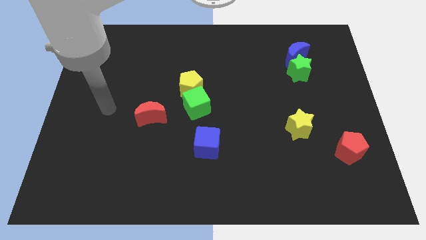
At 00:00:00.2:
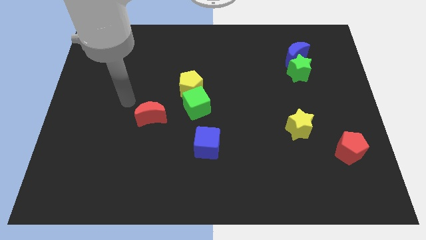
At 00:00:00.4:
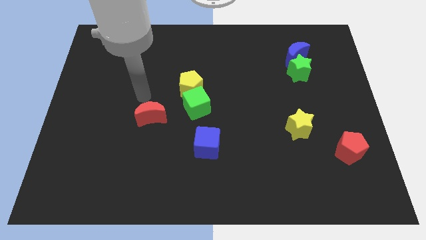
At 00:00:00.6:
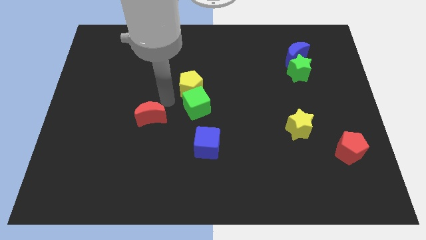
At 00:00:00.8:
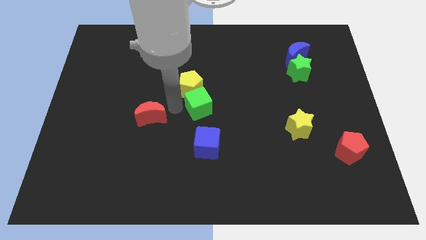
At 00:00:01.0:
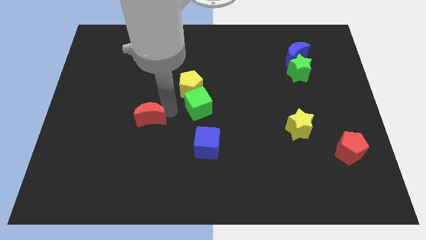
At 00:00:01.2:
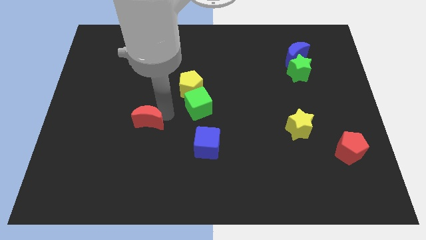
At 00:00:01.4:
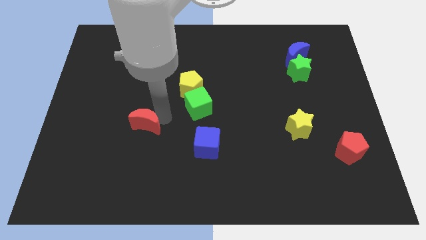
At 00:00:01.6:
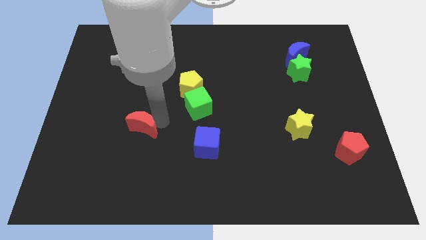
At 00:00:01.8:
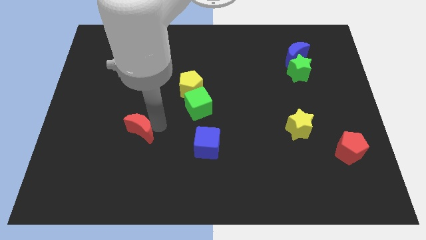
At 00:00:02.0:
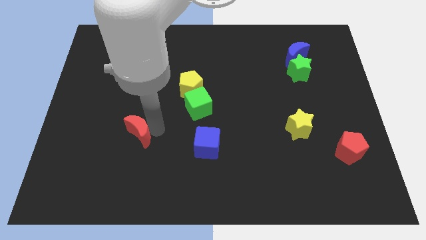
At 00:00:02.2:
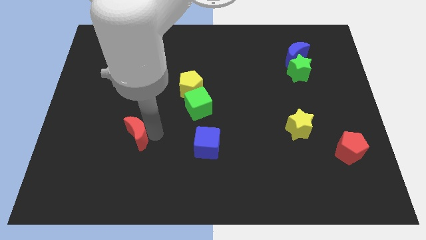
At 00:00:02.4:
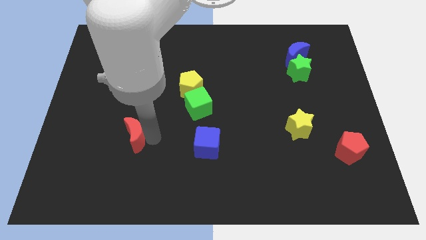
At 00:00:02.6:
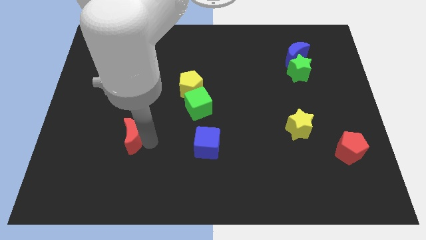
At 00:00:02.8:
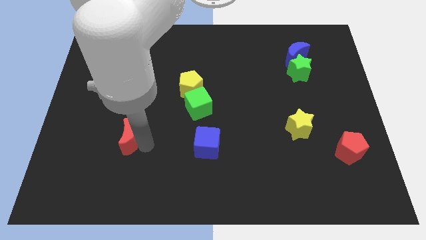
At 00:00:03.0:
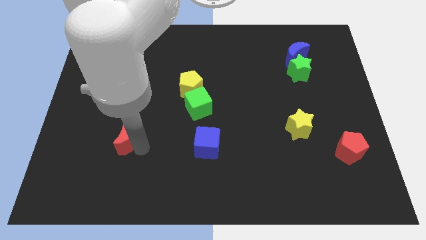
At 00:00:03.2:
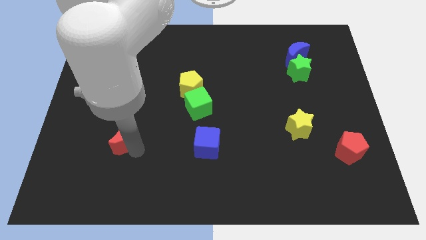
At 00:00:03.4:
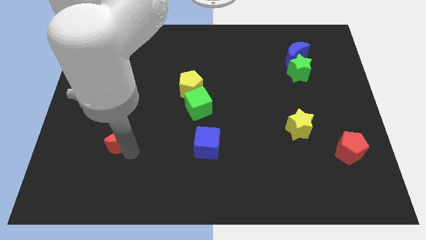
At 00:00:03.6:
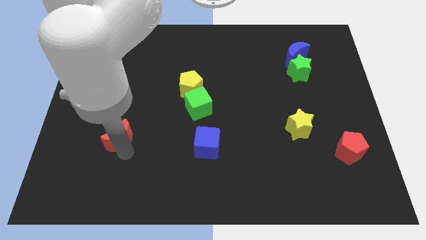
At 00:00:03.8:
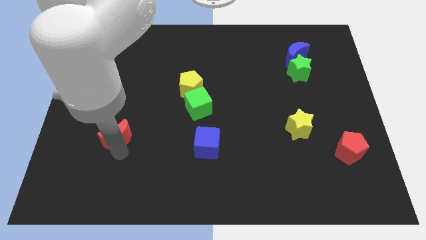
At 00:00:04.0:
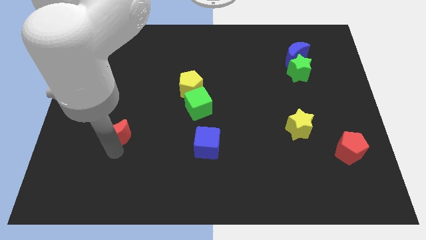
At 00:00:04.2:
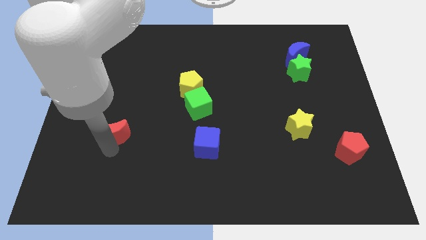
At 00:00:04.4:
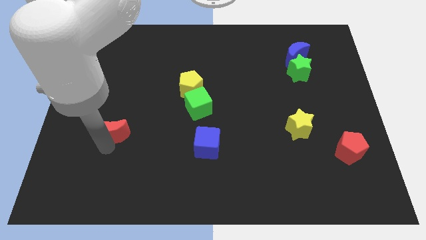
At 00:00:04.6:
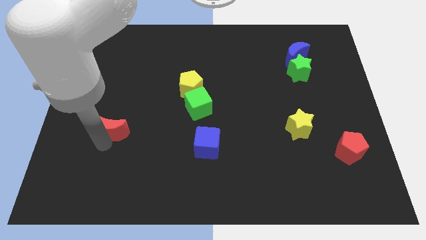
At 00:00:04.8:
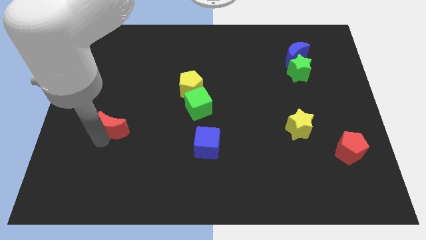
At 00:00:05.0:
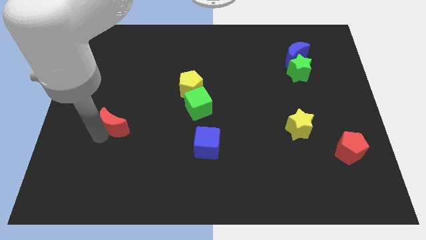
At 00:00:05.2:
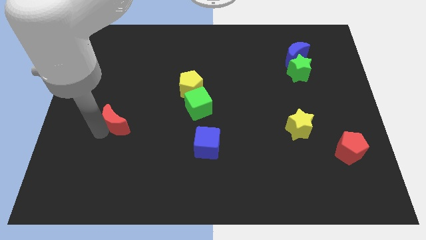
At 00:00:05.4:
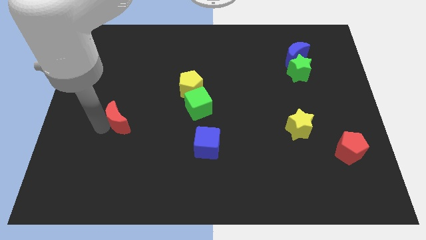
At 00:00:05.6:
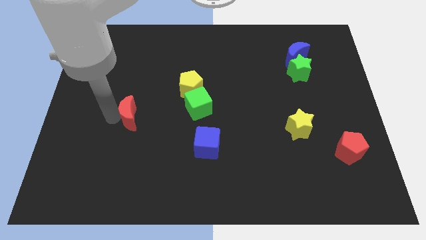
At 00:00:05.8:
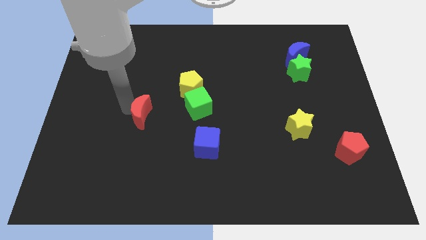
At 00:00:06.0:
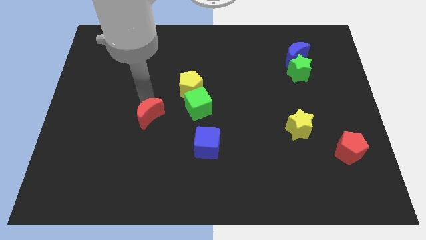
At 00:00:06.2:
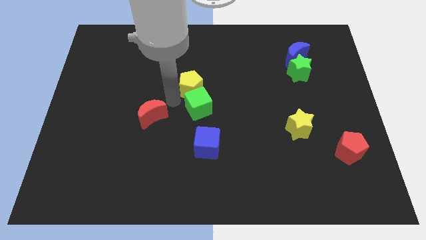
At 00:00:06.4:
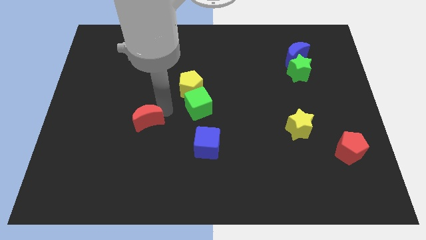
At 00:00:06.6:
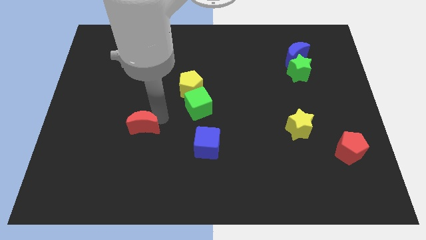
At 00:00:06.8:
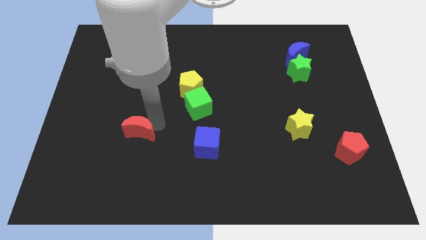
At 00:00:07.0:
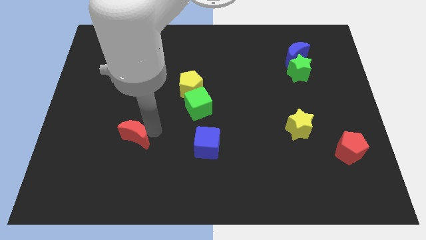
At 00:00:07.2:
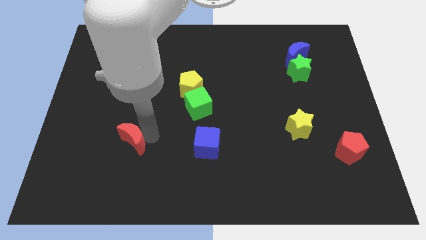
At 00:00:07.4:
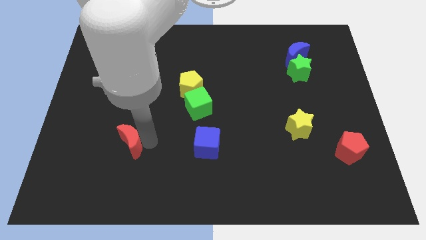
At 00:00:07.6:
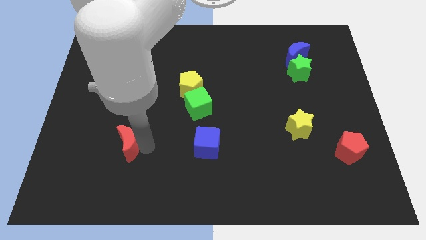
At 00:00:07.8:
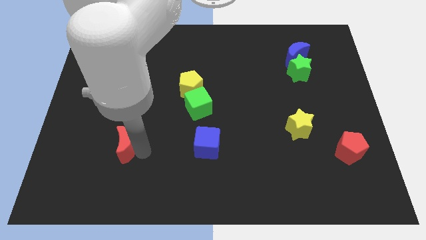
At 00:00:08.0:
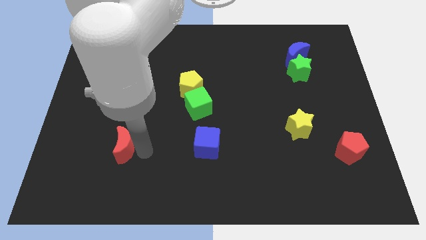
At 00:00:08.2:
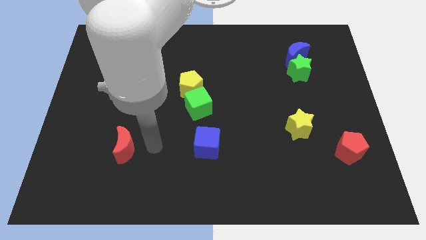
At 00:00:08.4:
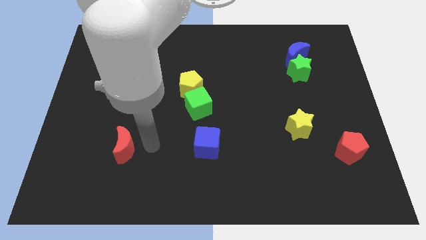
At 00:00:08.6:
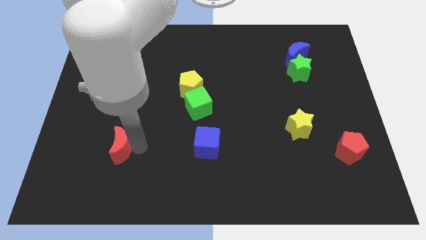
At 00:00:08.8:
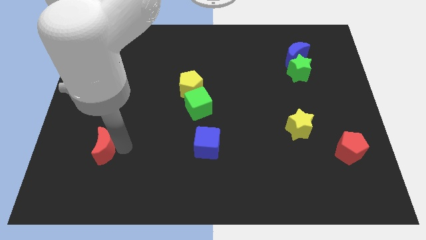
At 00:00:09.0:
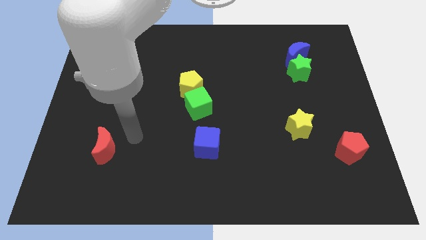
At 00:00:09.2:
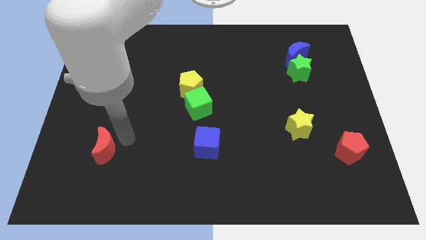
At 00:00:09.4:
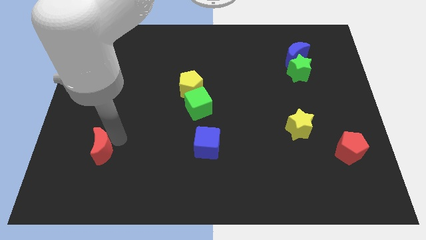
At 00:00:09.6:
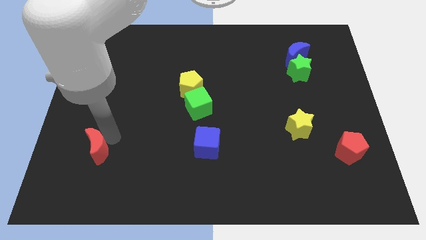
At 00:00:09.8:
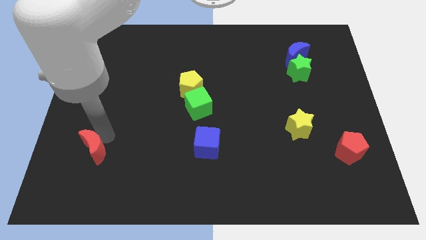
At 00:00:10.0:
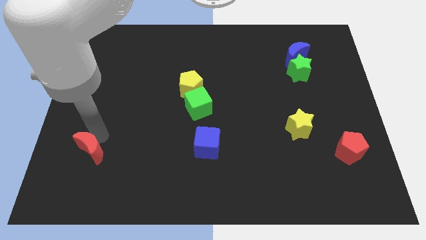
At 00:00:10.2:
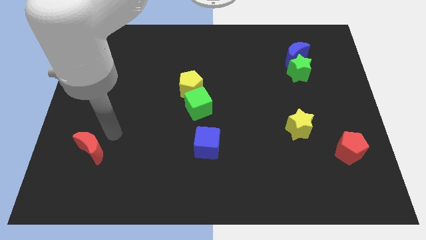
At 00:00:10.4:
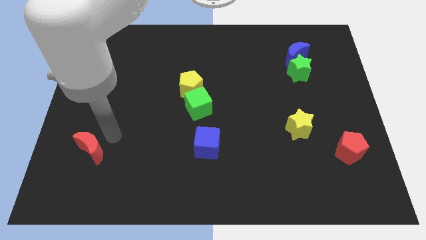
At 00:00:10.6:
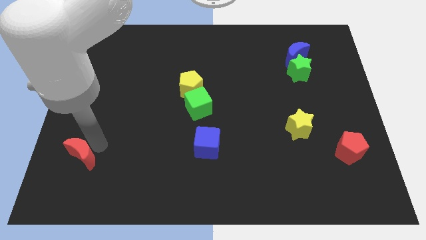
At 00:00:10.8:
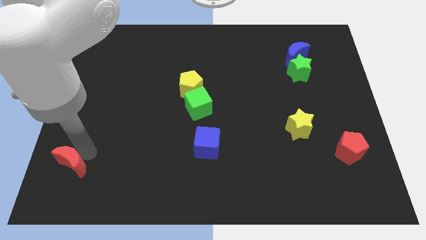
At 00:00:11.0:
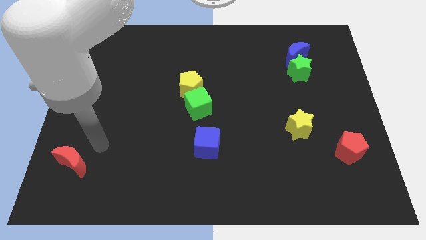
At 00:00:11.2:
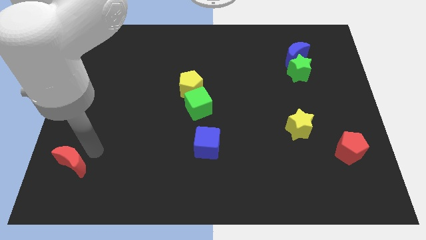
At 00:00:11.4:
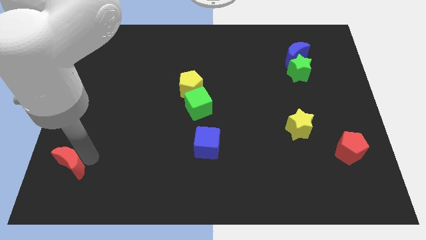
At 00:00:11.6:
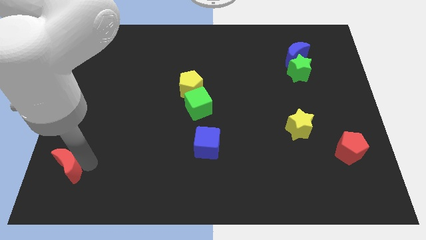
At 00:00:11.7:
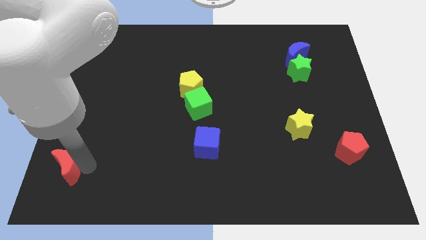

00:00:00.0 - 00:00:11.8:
move the red moon to the bottom left

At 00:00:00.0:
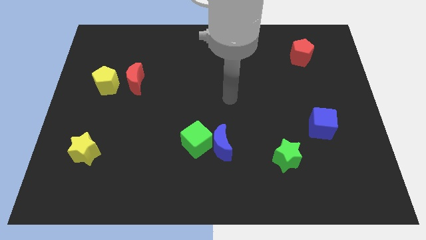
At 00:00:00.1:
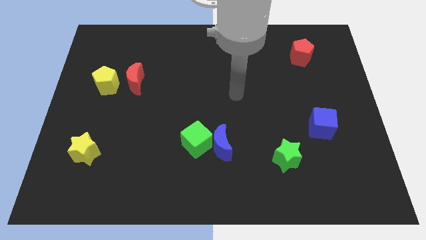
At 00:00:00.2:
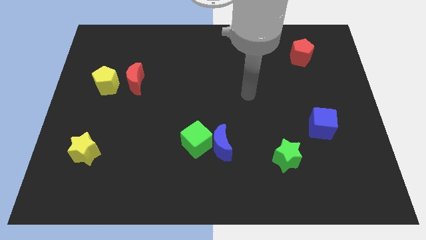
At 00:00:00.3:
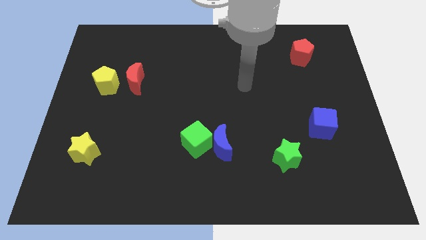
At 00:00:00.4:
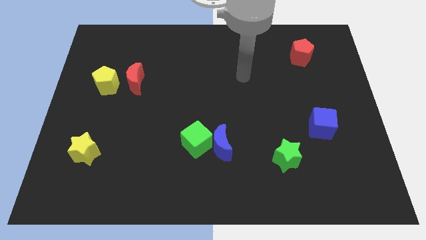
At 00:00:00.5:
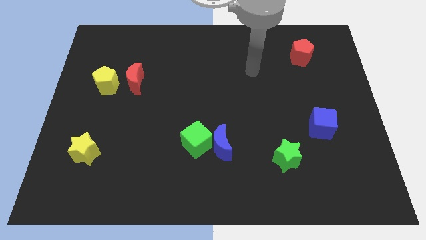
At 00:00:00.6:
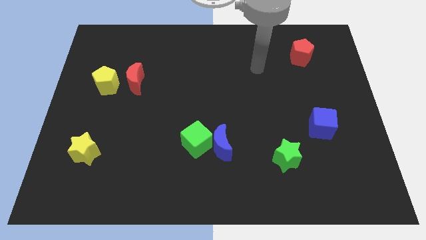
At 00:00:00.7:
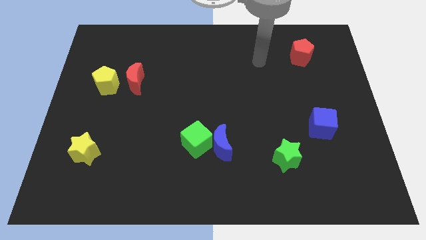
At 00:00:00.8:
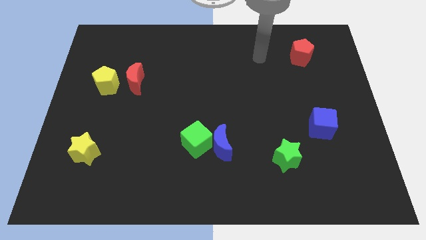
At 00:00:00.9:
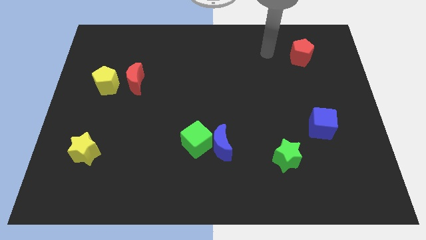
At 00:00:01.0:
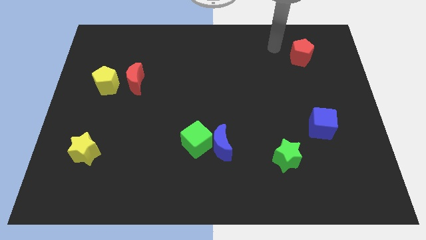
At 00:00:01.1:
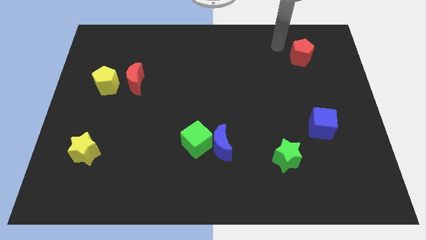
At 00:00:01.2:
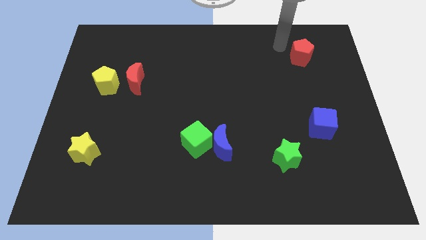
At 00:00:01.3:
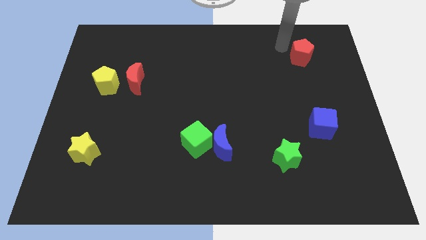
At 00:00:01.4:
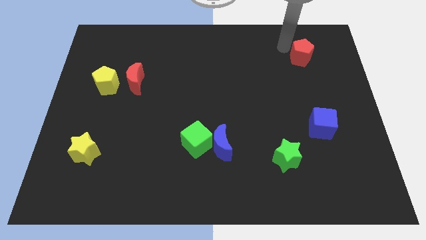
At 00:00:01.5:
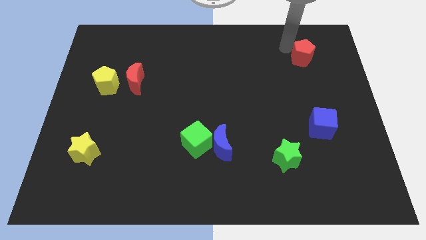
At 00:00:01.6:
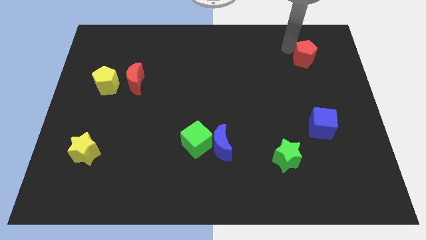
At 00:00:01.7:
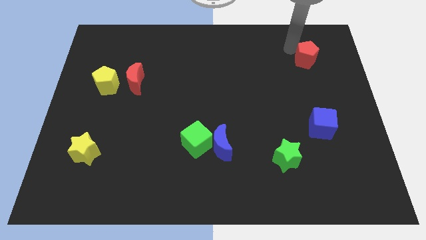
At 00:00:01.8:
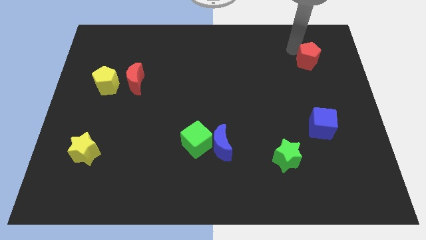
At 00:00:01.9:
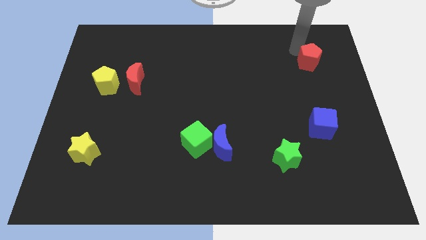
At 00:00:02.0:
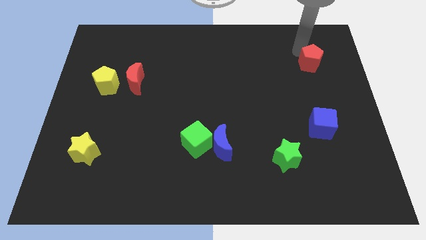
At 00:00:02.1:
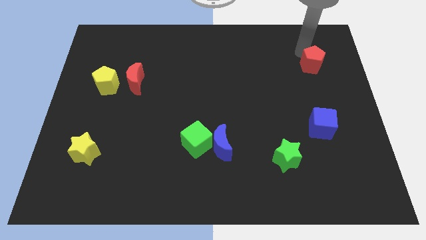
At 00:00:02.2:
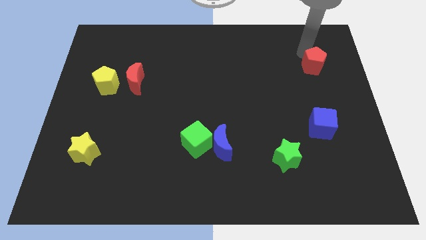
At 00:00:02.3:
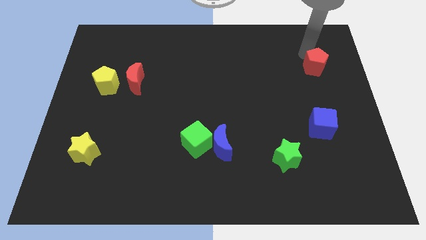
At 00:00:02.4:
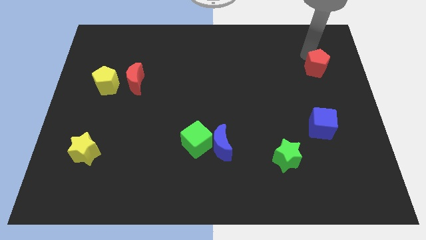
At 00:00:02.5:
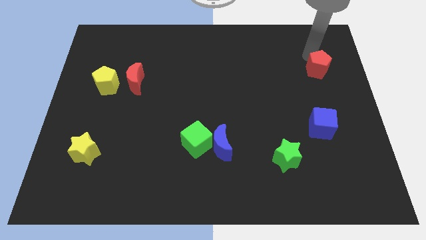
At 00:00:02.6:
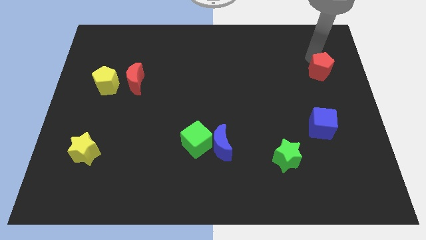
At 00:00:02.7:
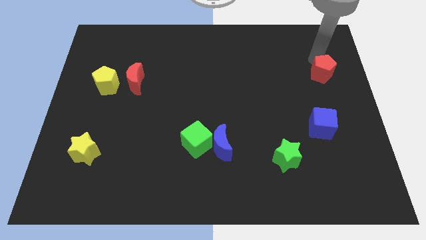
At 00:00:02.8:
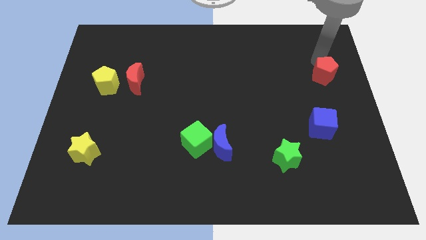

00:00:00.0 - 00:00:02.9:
push the red pentagon to the center right
